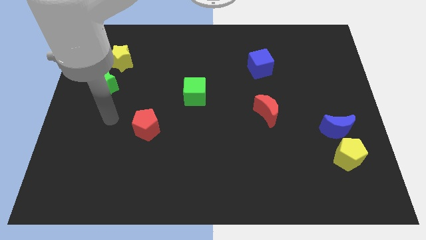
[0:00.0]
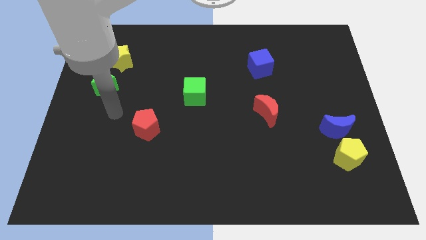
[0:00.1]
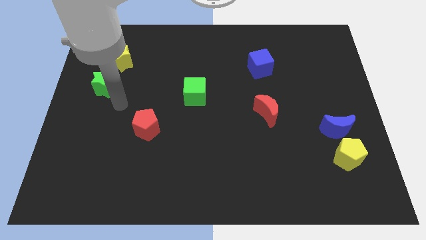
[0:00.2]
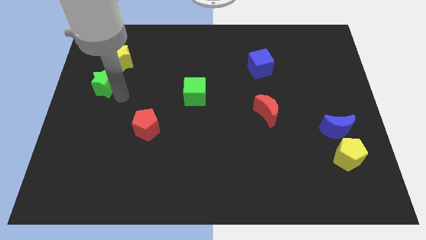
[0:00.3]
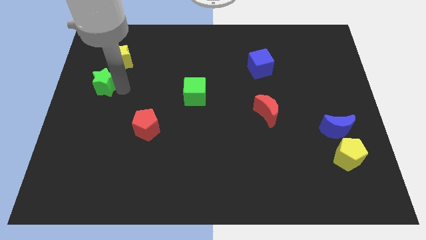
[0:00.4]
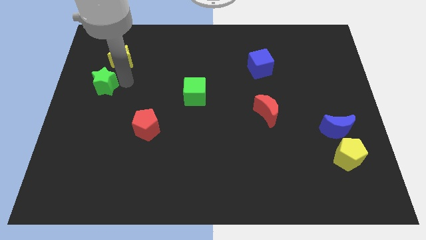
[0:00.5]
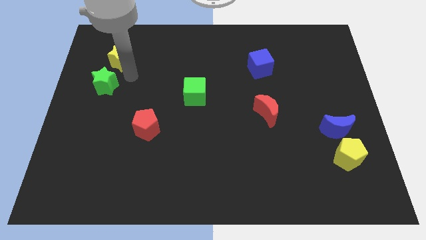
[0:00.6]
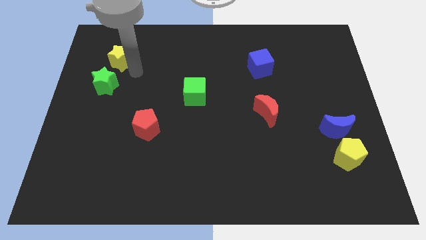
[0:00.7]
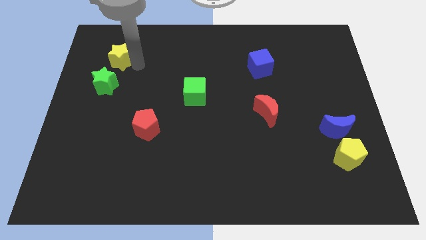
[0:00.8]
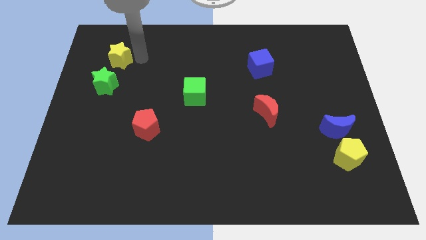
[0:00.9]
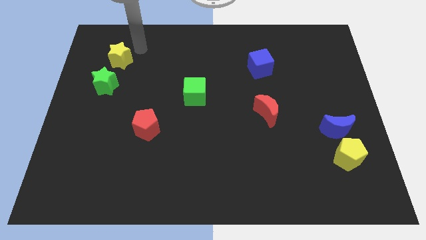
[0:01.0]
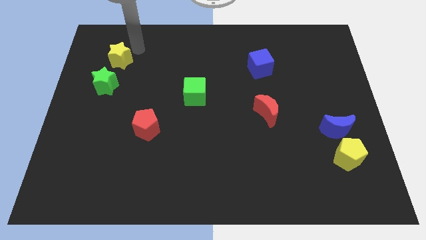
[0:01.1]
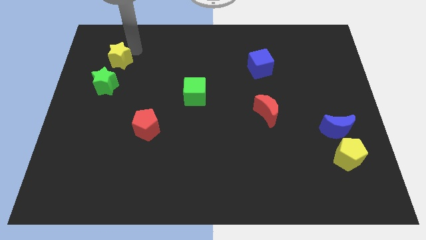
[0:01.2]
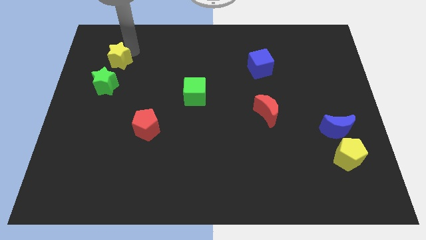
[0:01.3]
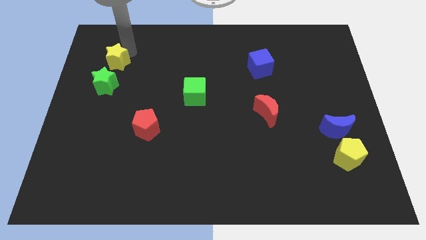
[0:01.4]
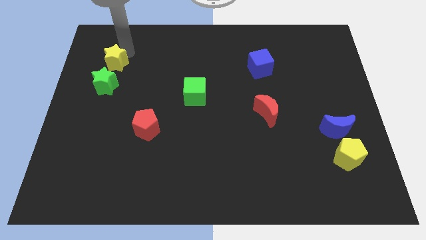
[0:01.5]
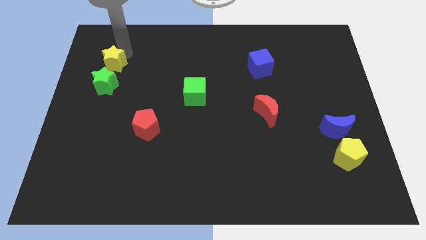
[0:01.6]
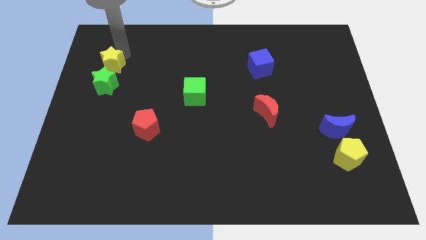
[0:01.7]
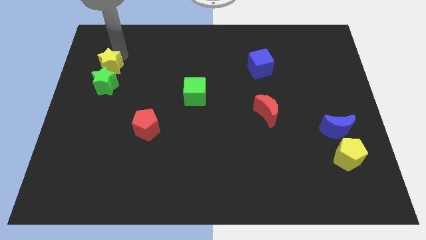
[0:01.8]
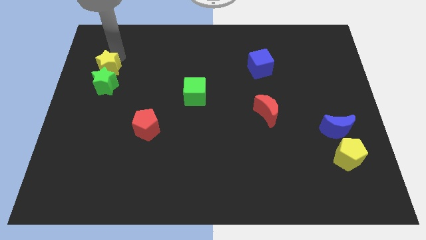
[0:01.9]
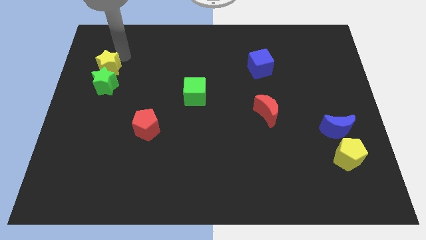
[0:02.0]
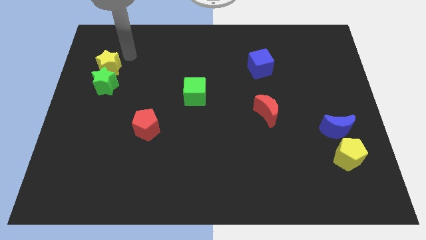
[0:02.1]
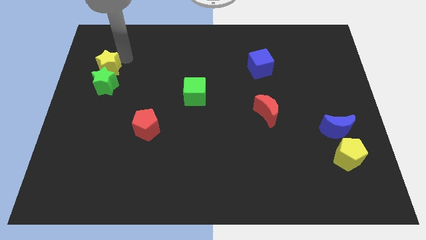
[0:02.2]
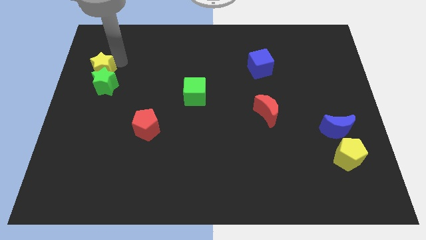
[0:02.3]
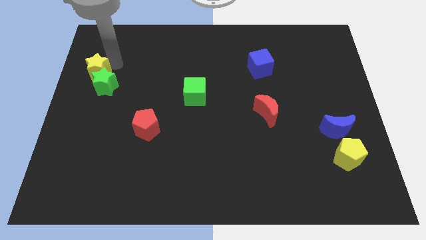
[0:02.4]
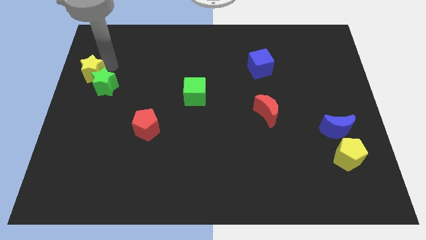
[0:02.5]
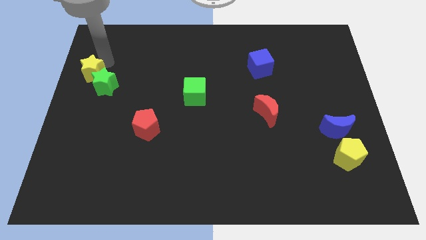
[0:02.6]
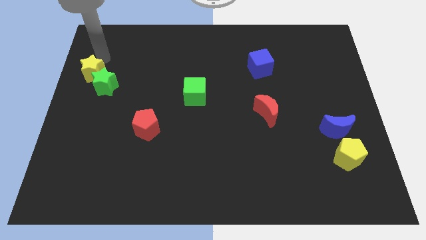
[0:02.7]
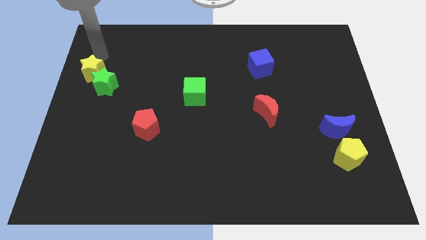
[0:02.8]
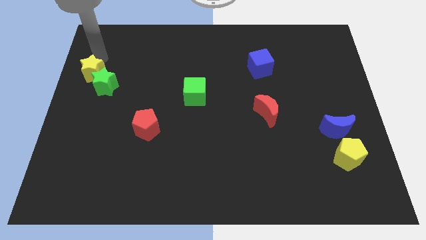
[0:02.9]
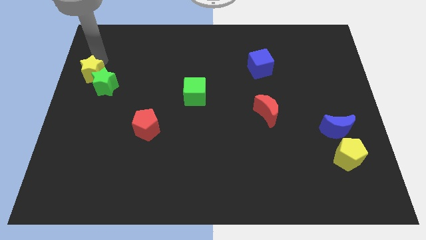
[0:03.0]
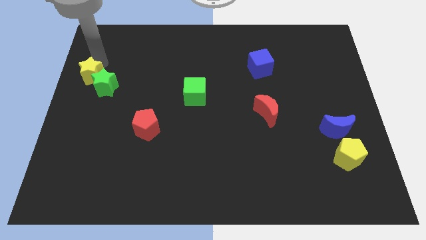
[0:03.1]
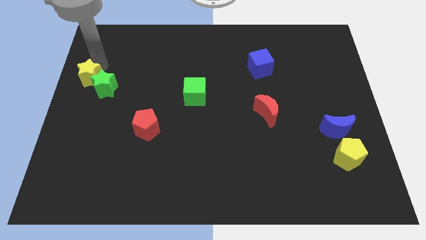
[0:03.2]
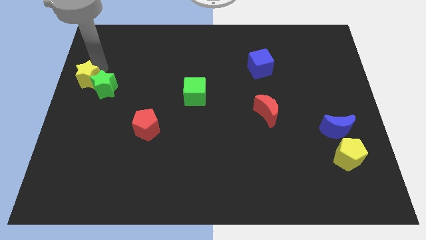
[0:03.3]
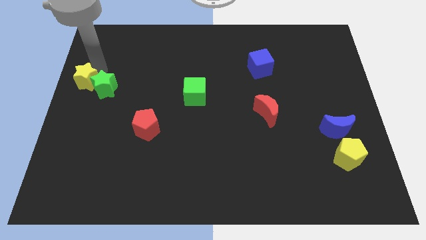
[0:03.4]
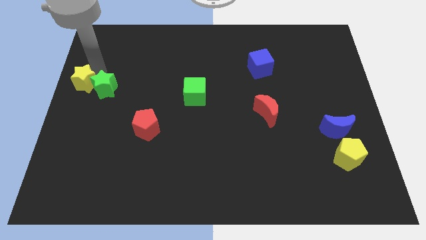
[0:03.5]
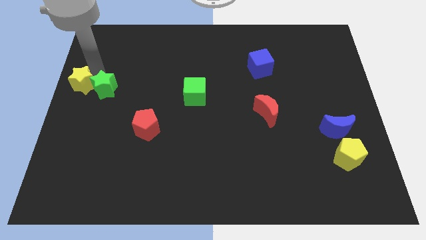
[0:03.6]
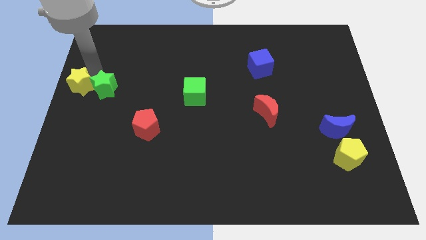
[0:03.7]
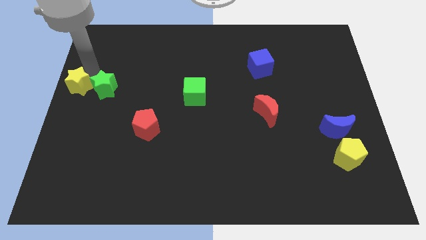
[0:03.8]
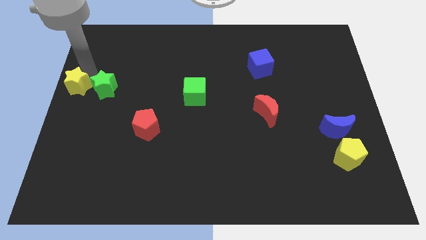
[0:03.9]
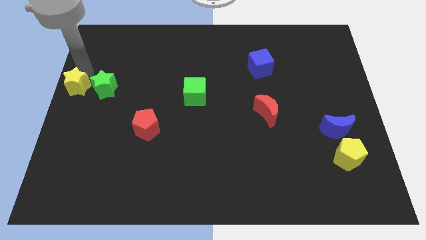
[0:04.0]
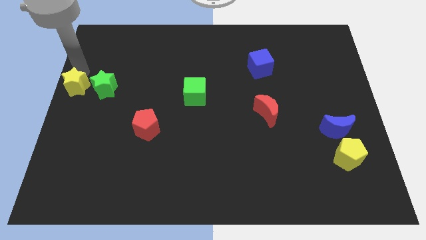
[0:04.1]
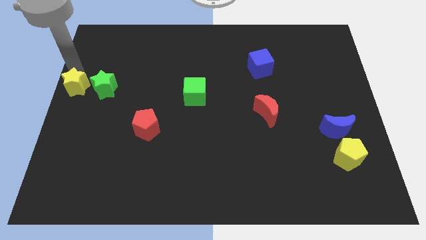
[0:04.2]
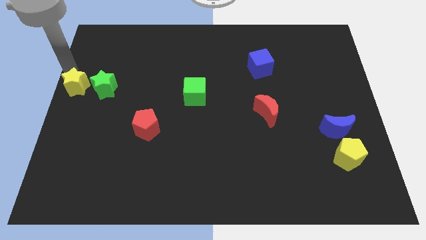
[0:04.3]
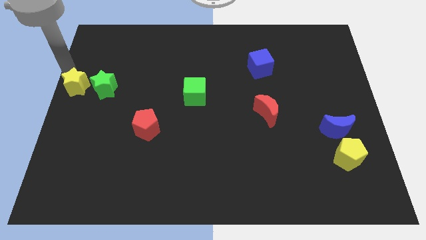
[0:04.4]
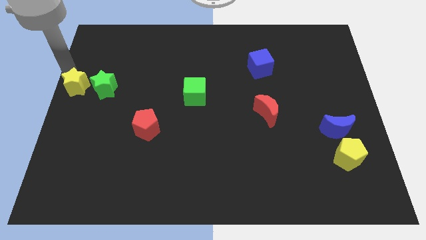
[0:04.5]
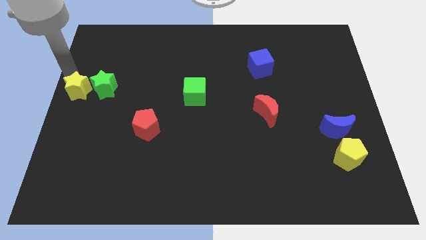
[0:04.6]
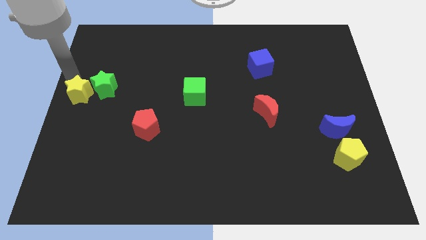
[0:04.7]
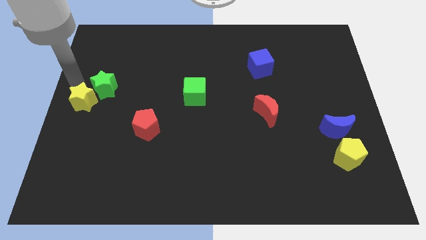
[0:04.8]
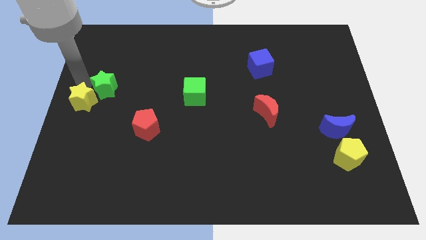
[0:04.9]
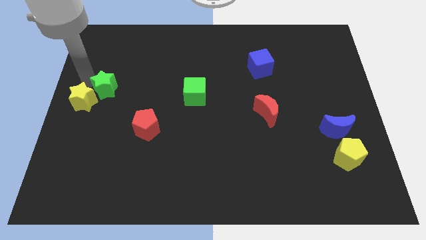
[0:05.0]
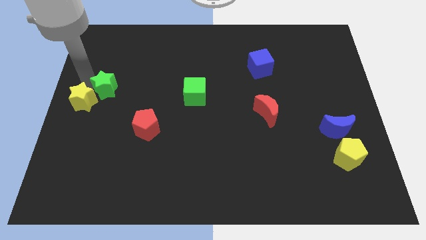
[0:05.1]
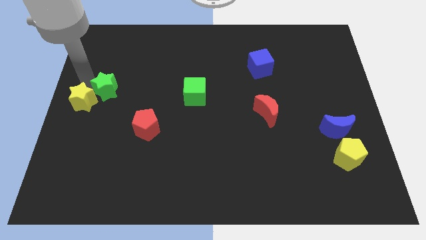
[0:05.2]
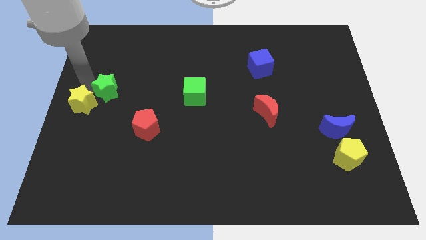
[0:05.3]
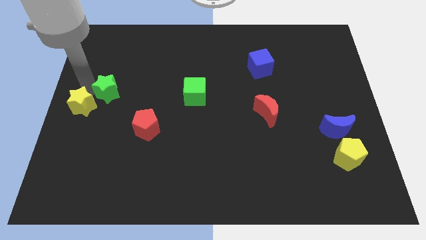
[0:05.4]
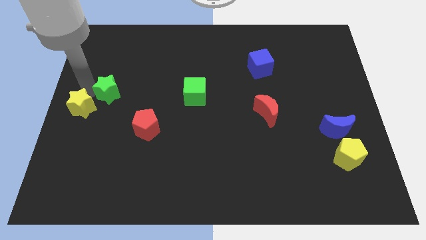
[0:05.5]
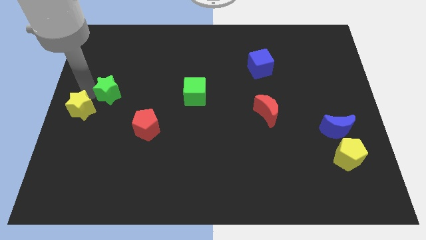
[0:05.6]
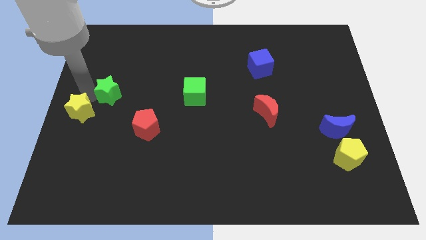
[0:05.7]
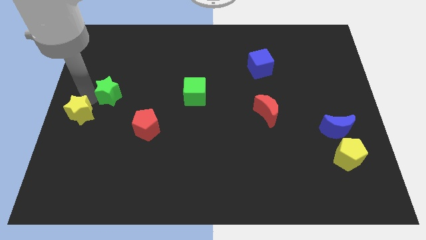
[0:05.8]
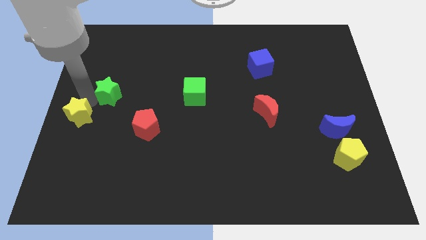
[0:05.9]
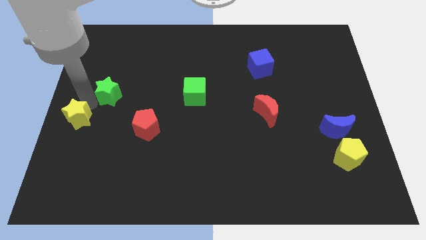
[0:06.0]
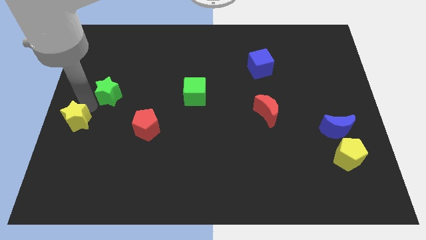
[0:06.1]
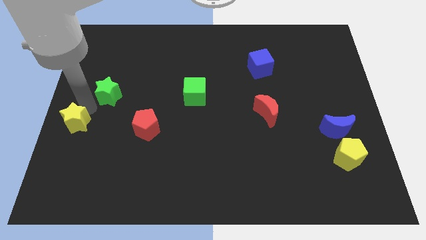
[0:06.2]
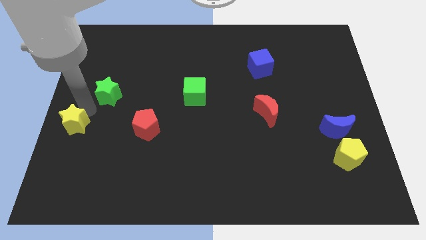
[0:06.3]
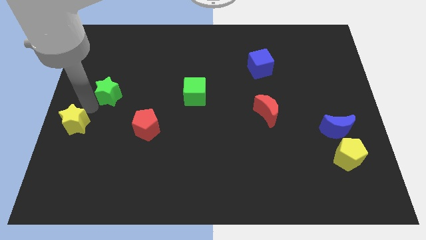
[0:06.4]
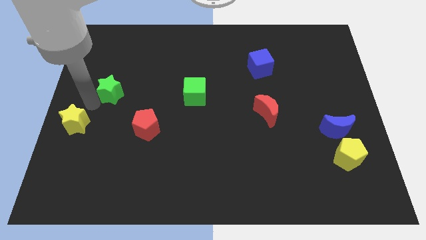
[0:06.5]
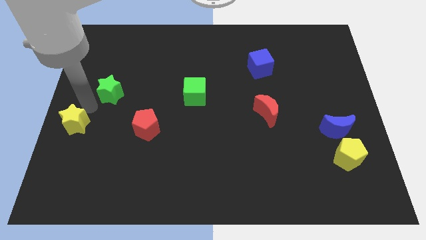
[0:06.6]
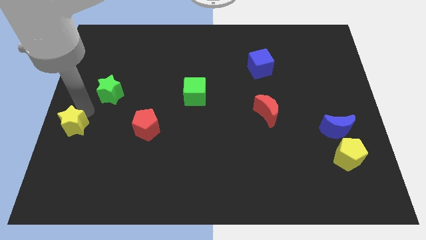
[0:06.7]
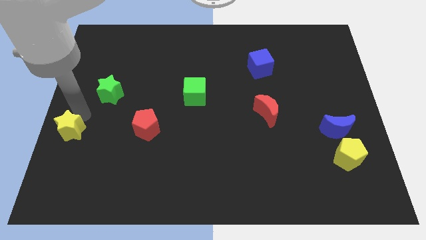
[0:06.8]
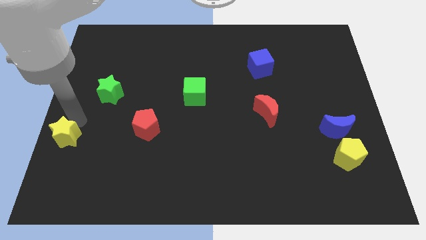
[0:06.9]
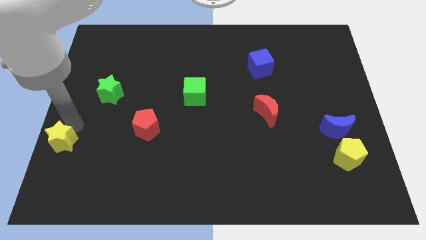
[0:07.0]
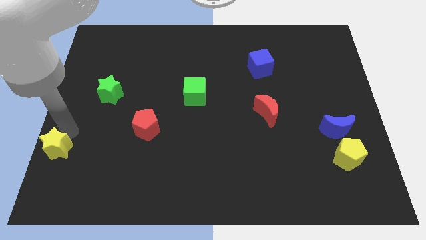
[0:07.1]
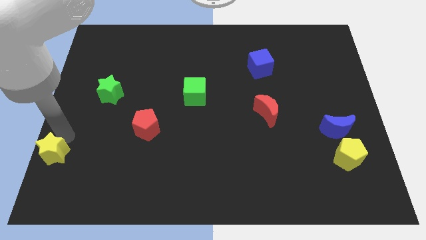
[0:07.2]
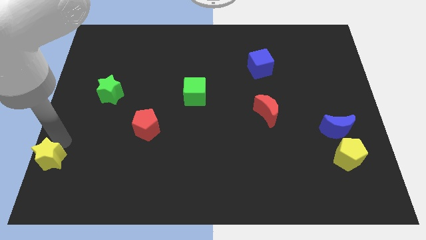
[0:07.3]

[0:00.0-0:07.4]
move the yellow star to the bottom left of the board
